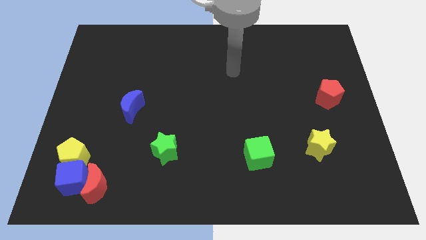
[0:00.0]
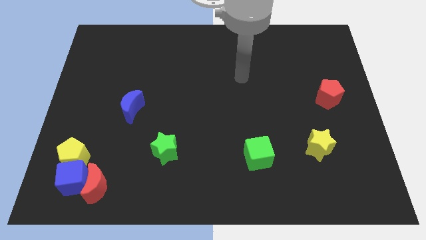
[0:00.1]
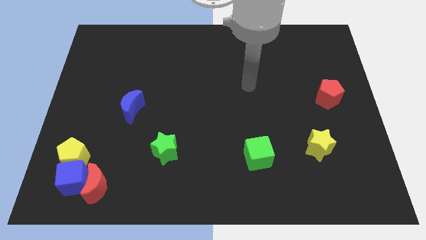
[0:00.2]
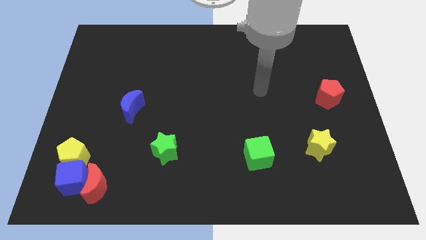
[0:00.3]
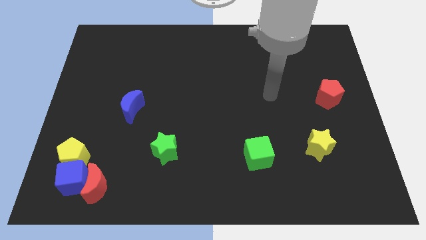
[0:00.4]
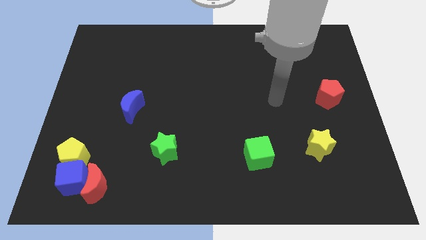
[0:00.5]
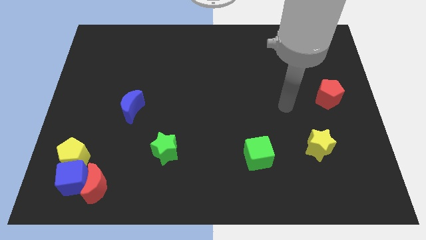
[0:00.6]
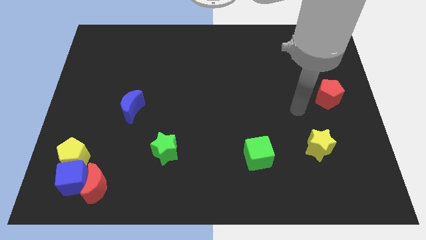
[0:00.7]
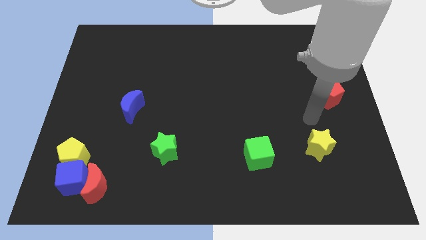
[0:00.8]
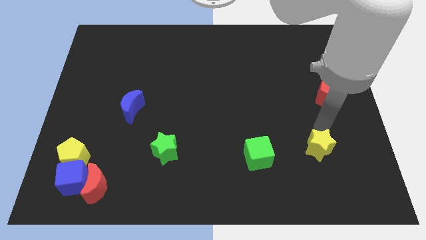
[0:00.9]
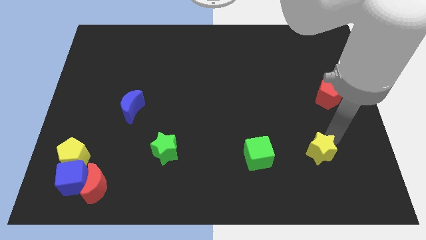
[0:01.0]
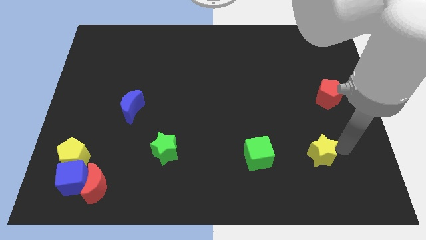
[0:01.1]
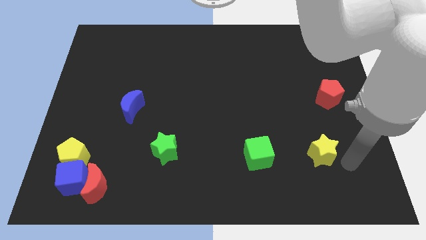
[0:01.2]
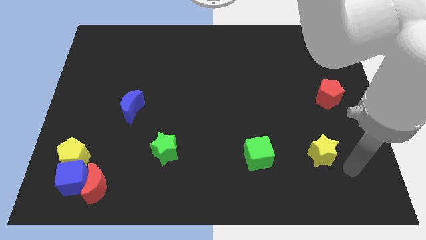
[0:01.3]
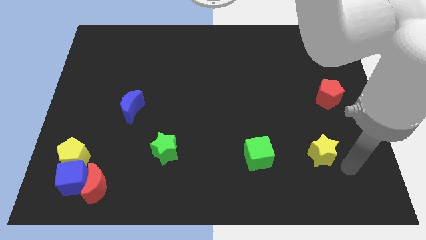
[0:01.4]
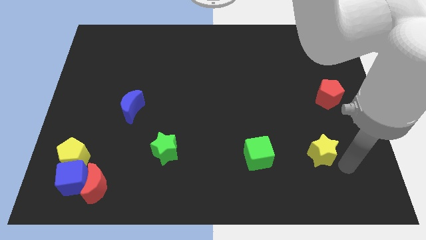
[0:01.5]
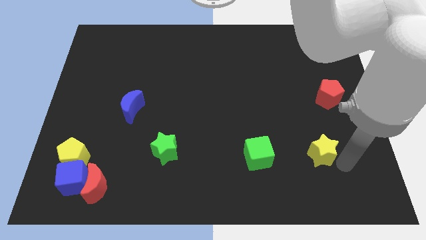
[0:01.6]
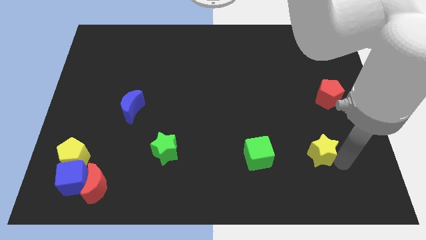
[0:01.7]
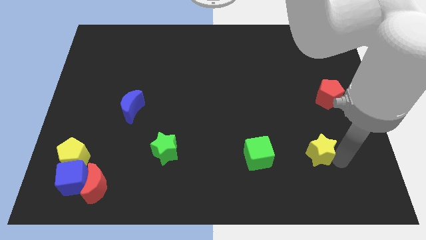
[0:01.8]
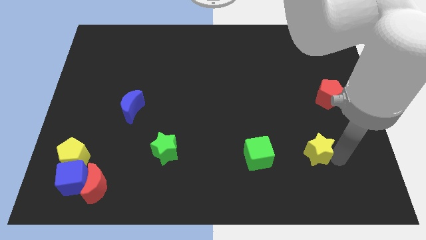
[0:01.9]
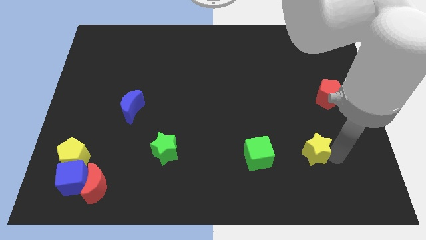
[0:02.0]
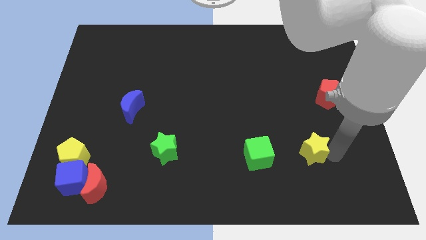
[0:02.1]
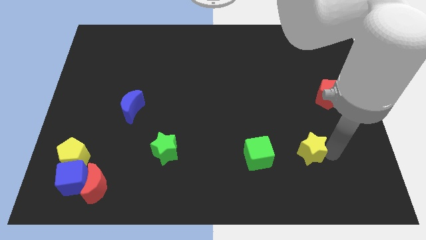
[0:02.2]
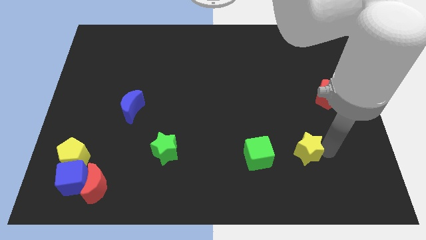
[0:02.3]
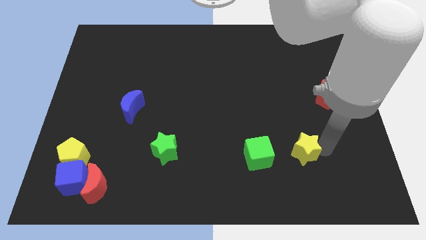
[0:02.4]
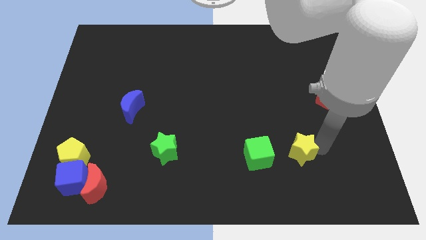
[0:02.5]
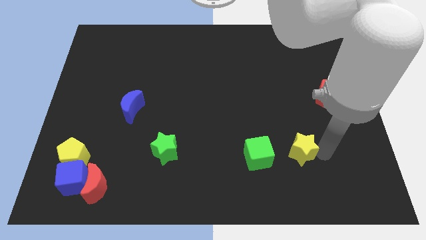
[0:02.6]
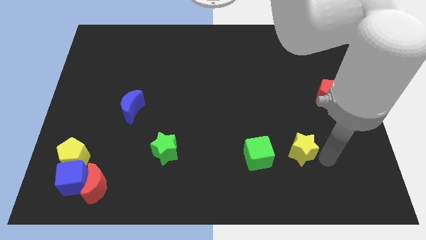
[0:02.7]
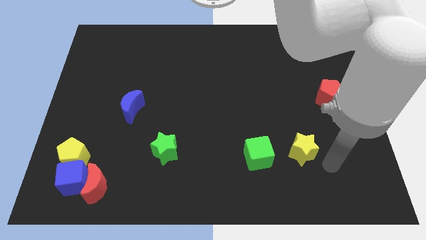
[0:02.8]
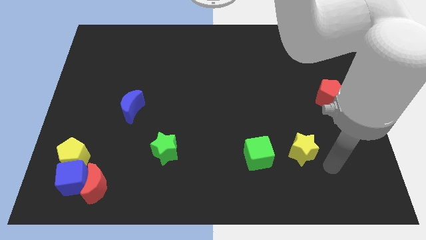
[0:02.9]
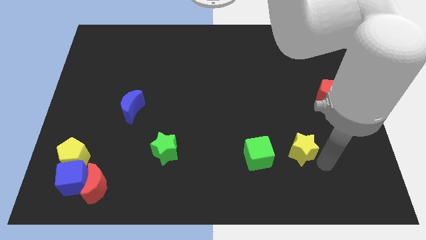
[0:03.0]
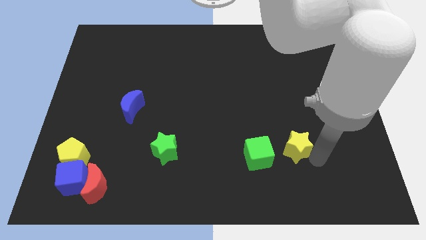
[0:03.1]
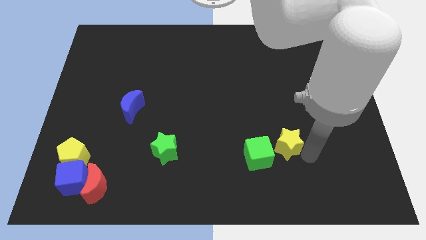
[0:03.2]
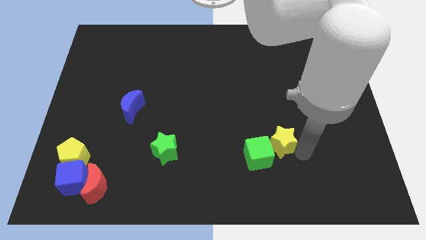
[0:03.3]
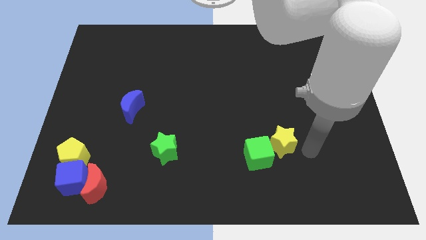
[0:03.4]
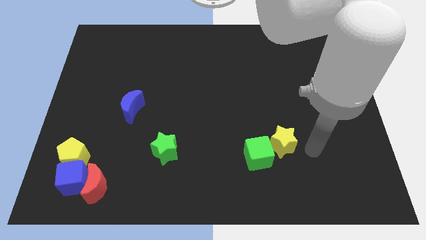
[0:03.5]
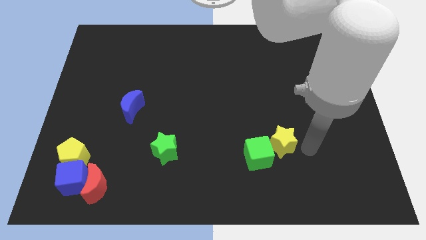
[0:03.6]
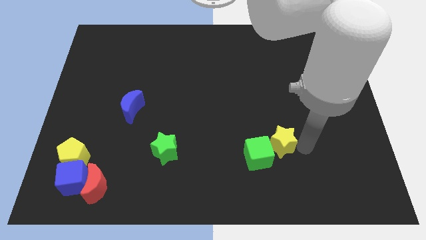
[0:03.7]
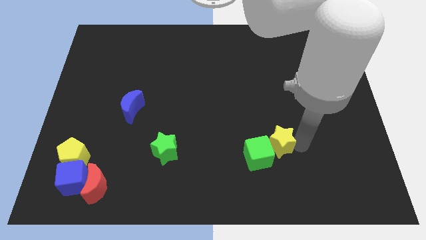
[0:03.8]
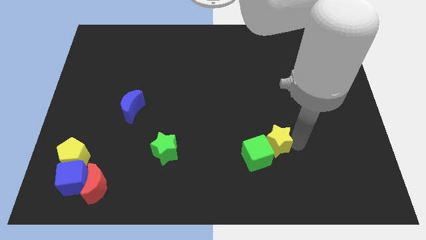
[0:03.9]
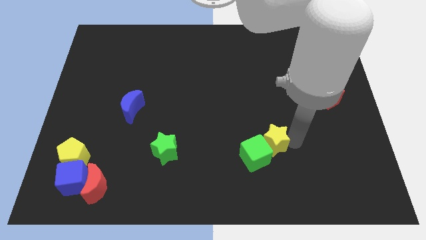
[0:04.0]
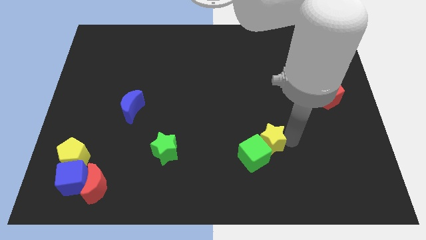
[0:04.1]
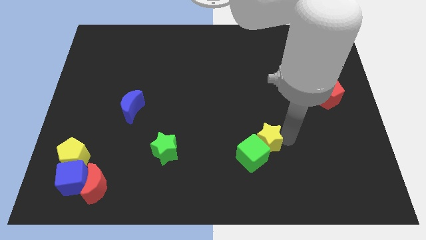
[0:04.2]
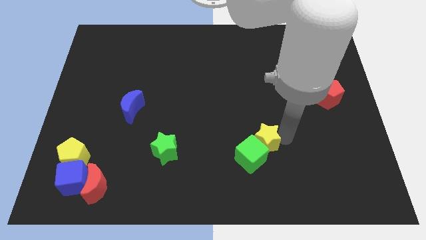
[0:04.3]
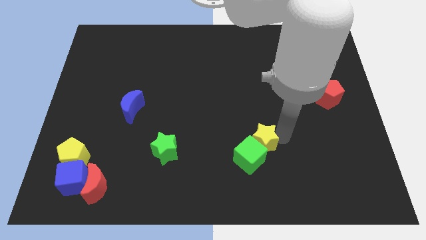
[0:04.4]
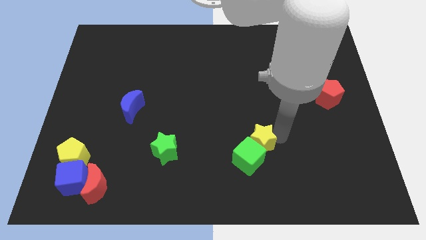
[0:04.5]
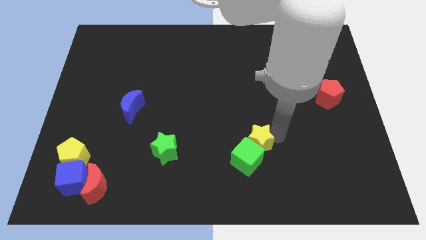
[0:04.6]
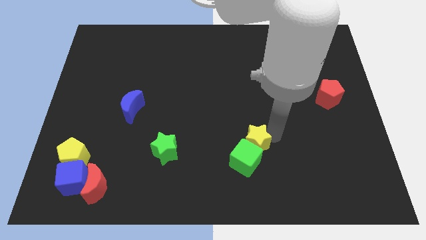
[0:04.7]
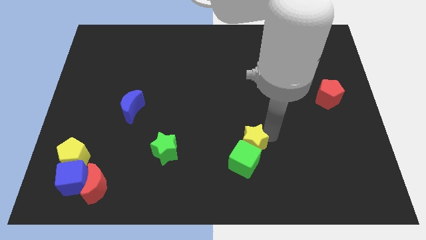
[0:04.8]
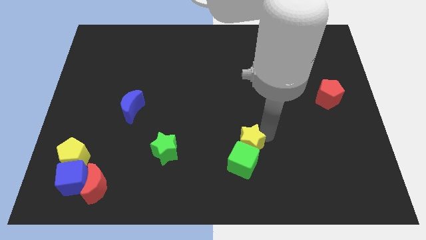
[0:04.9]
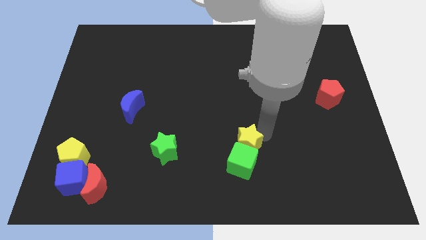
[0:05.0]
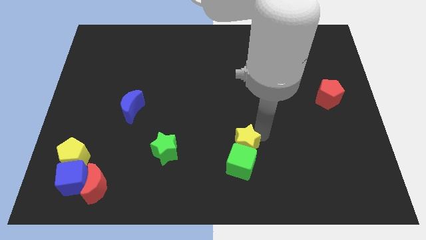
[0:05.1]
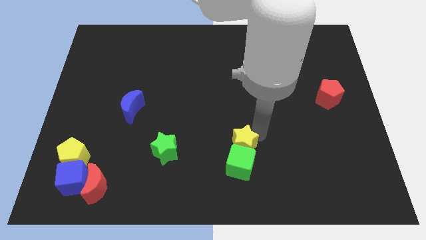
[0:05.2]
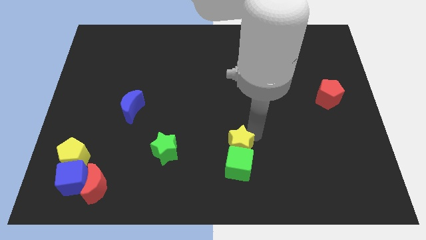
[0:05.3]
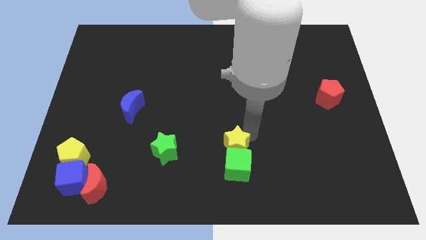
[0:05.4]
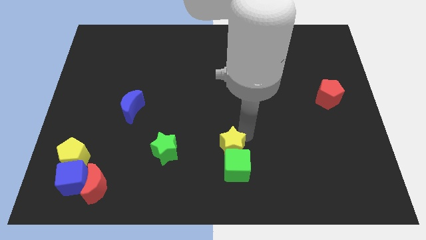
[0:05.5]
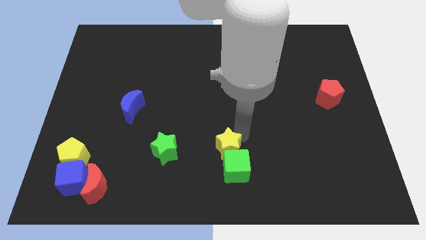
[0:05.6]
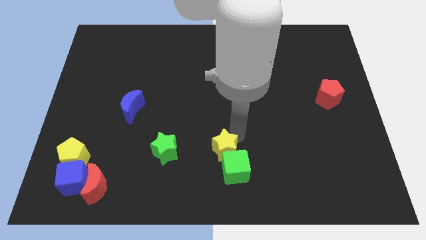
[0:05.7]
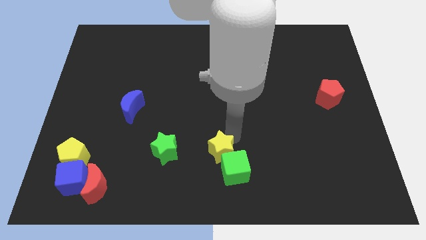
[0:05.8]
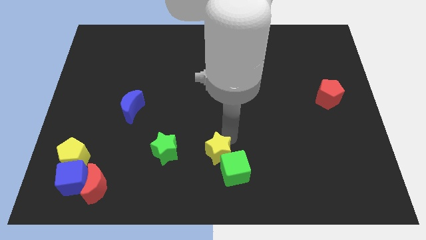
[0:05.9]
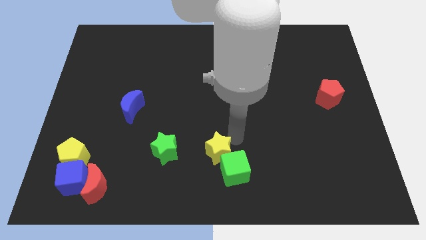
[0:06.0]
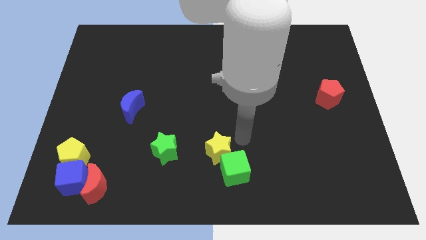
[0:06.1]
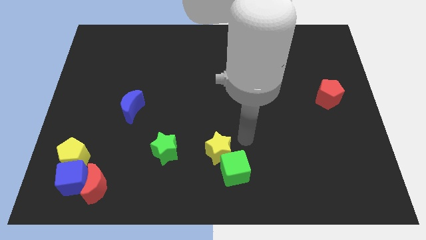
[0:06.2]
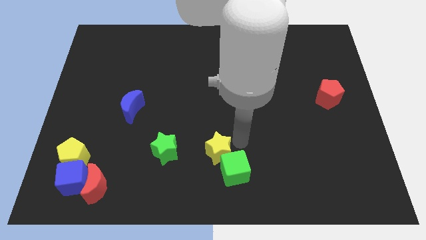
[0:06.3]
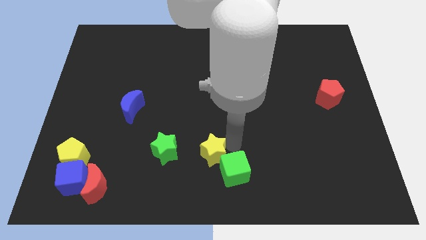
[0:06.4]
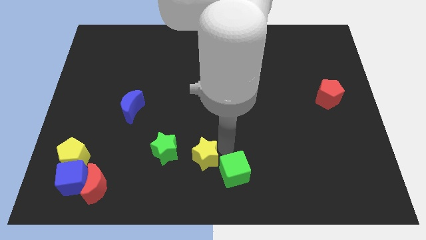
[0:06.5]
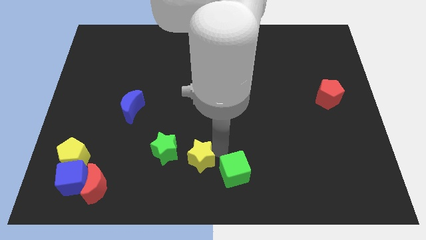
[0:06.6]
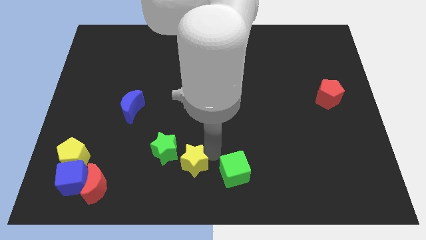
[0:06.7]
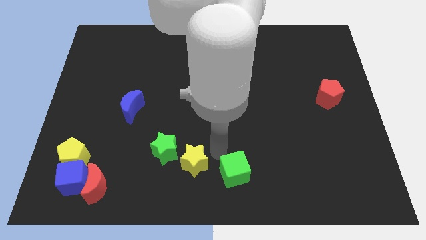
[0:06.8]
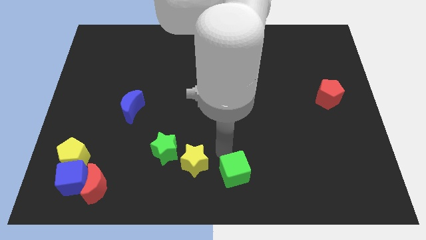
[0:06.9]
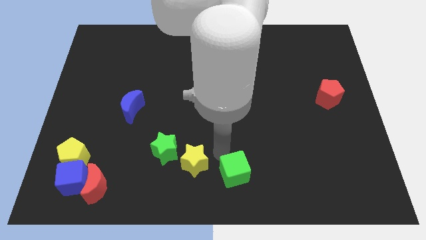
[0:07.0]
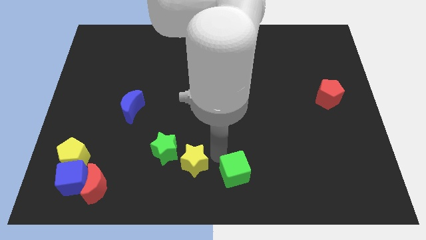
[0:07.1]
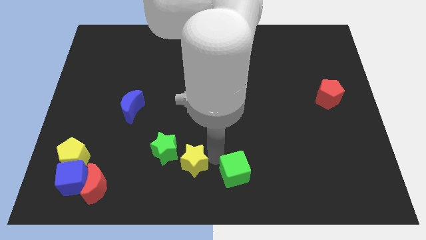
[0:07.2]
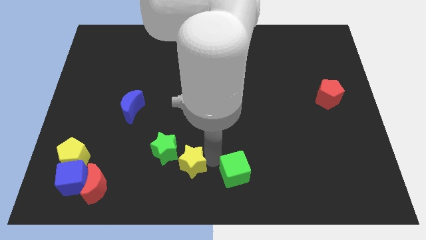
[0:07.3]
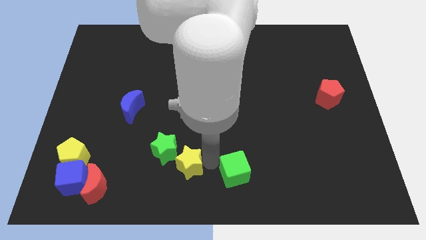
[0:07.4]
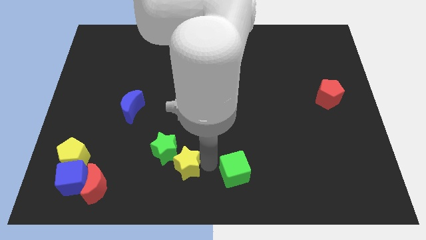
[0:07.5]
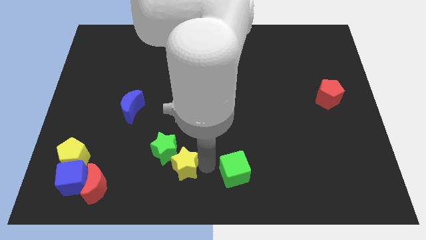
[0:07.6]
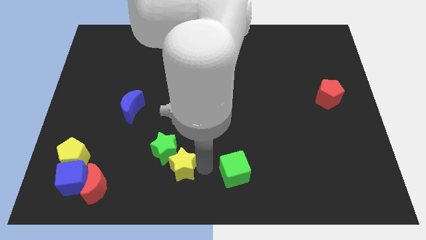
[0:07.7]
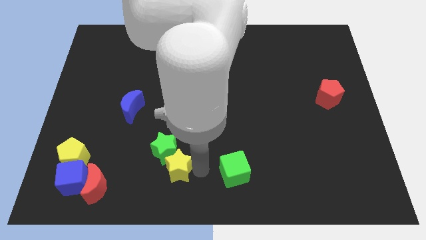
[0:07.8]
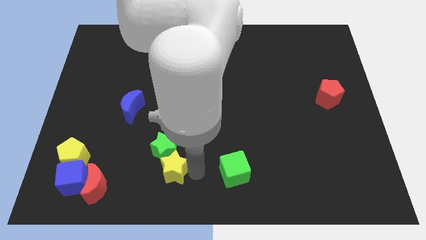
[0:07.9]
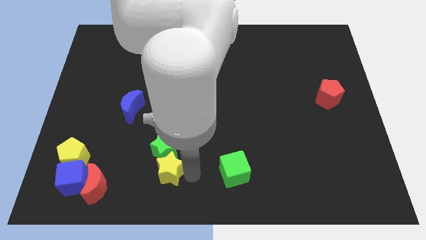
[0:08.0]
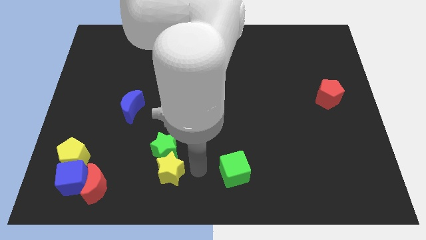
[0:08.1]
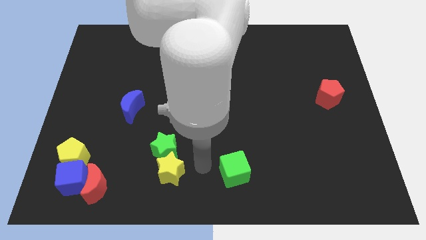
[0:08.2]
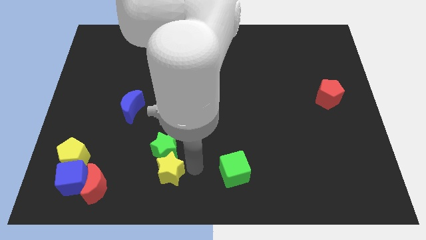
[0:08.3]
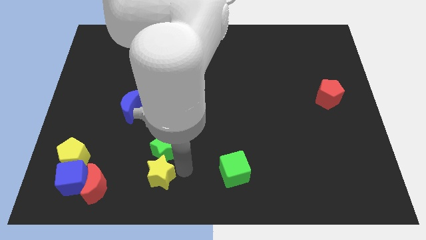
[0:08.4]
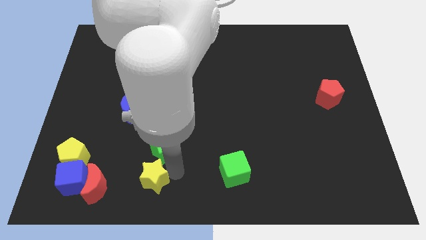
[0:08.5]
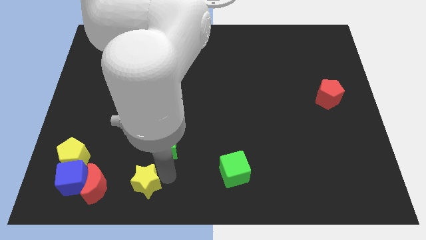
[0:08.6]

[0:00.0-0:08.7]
move the yellow star to the right of the blue cube
